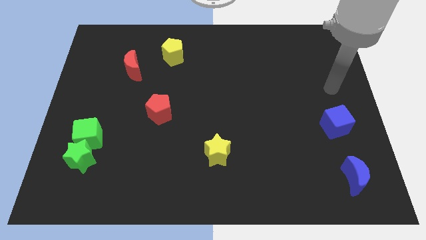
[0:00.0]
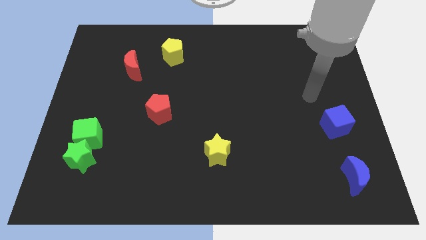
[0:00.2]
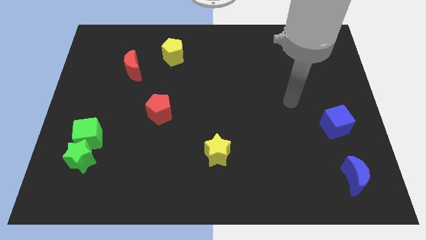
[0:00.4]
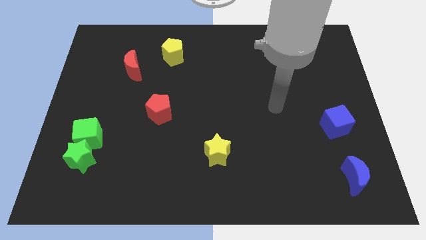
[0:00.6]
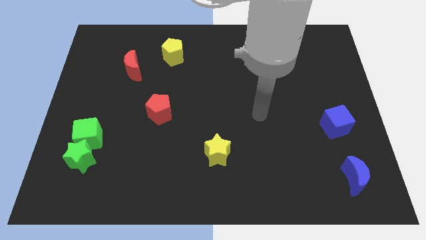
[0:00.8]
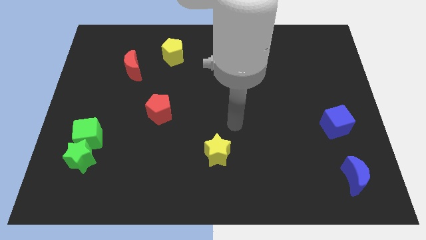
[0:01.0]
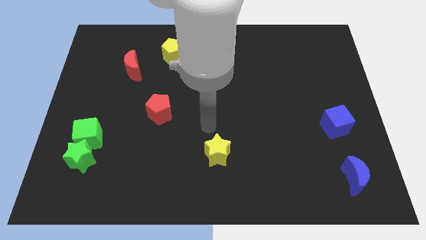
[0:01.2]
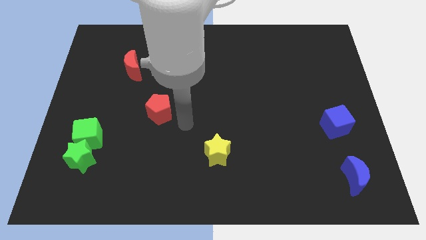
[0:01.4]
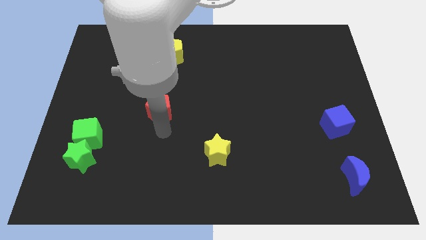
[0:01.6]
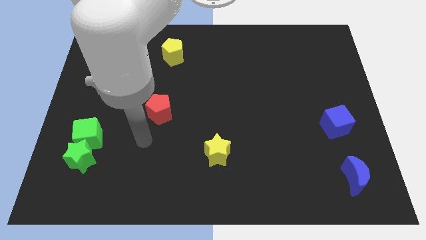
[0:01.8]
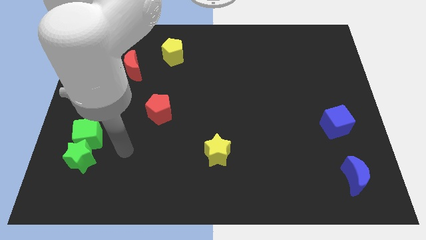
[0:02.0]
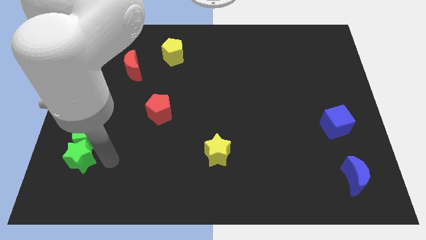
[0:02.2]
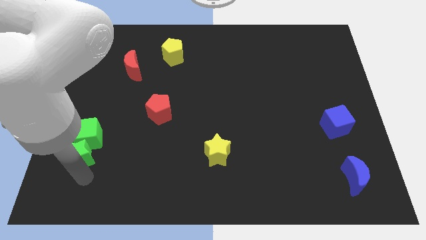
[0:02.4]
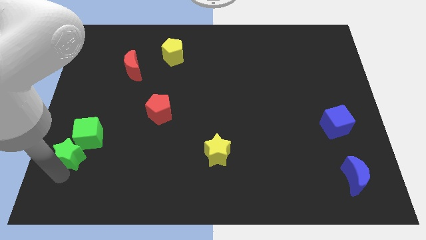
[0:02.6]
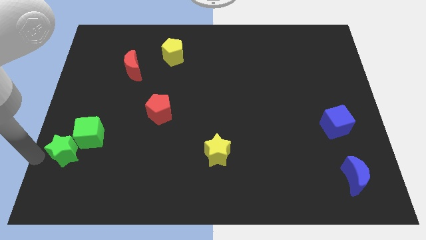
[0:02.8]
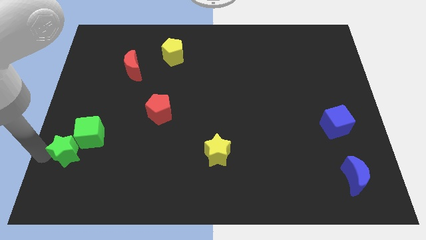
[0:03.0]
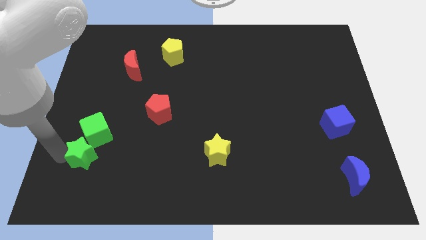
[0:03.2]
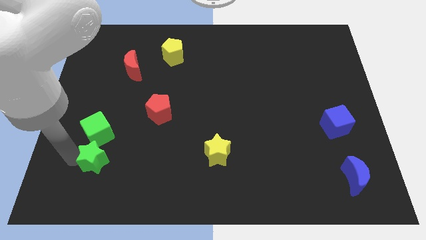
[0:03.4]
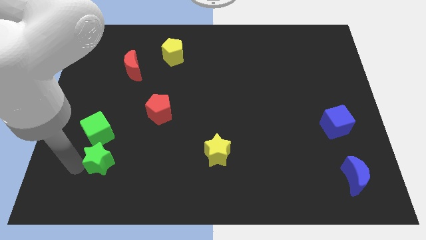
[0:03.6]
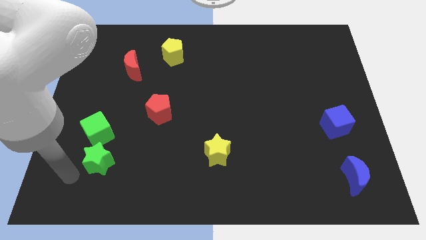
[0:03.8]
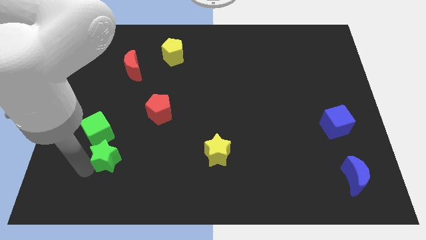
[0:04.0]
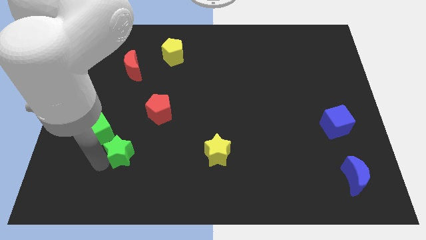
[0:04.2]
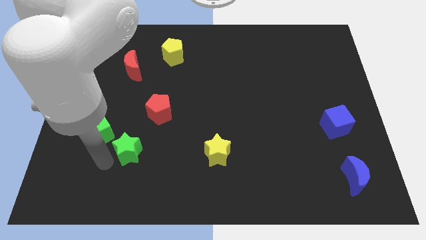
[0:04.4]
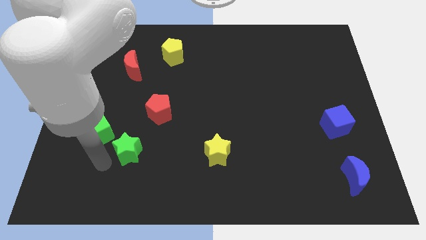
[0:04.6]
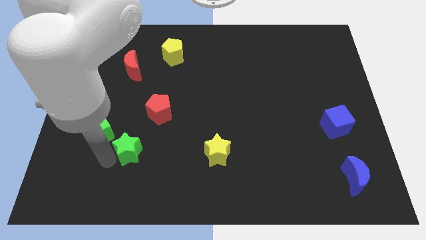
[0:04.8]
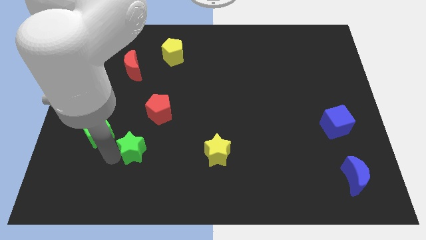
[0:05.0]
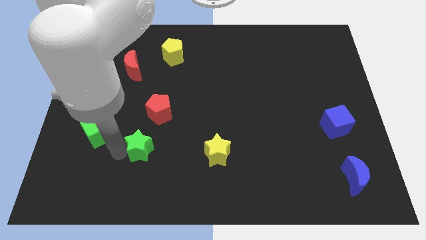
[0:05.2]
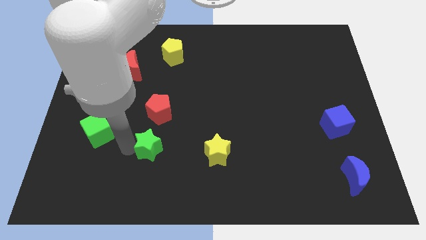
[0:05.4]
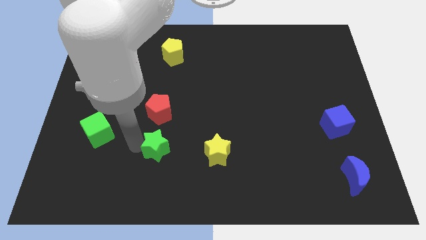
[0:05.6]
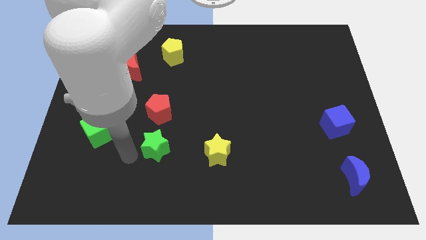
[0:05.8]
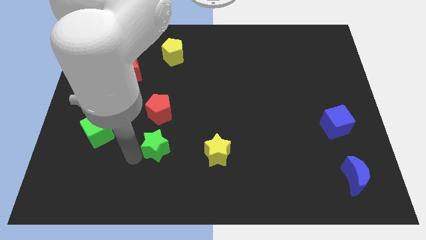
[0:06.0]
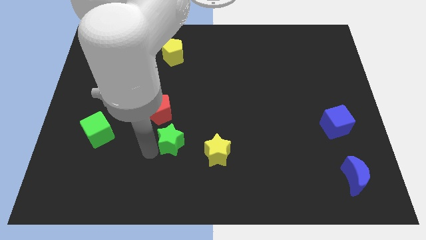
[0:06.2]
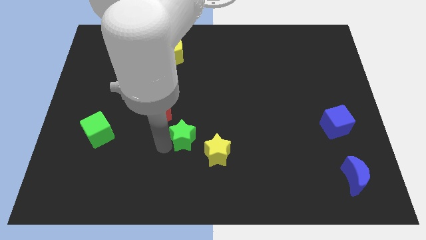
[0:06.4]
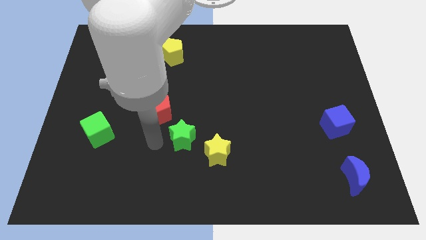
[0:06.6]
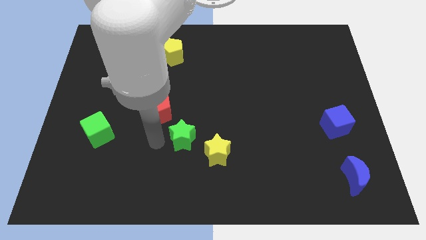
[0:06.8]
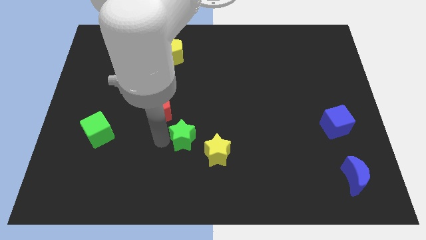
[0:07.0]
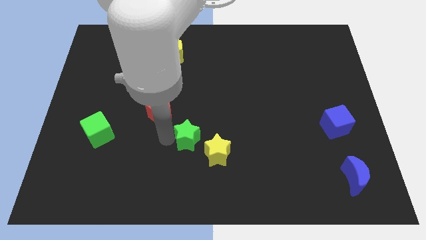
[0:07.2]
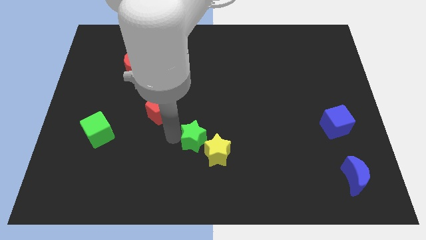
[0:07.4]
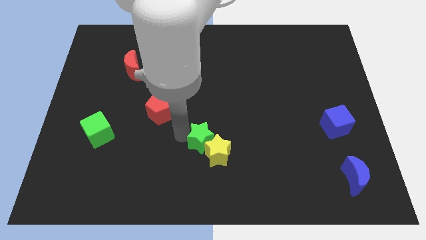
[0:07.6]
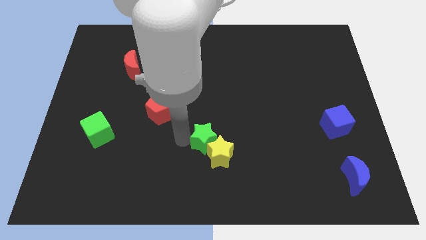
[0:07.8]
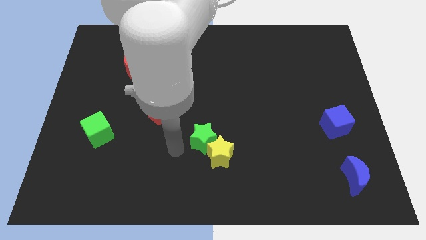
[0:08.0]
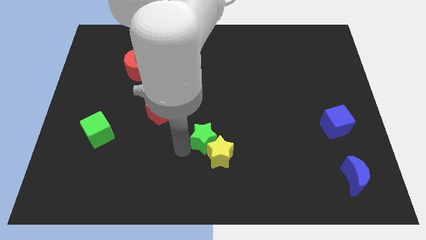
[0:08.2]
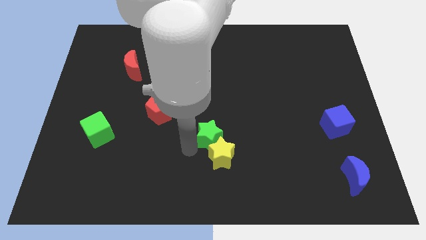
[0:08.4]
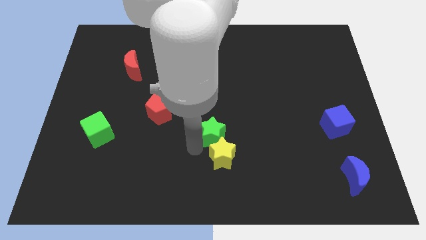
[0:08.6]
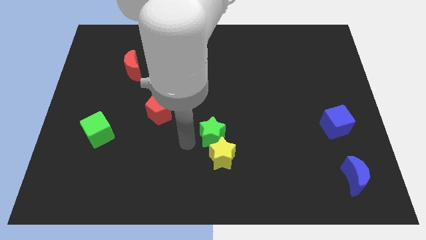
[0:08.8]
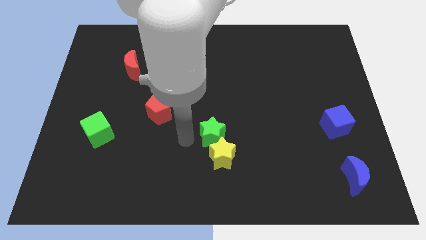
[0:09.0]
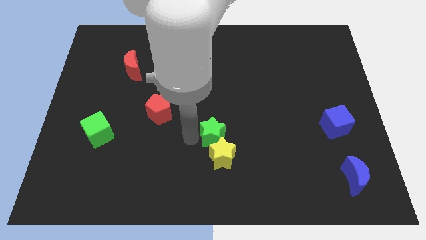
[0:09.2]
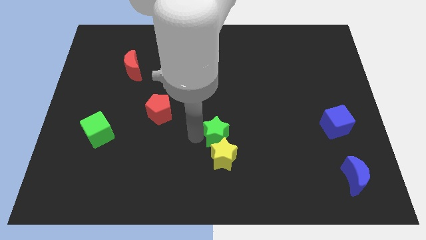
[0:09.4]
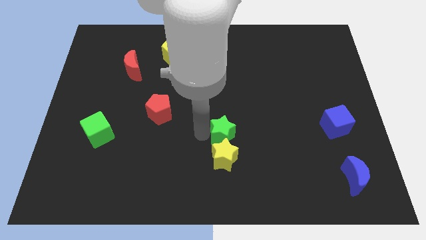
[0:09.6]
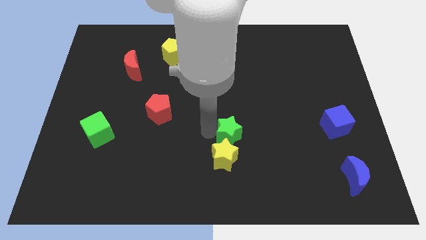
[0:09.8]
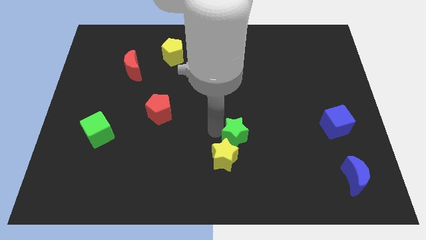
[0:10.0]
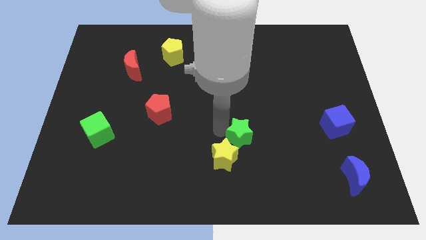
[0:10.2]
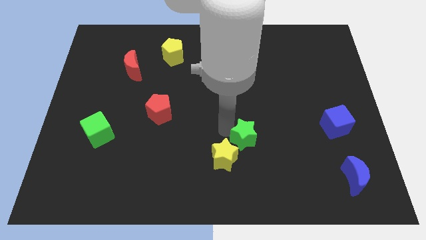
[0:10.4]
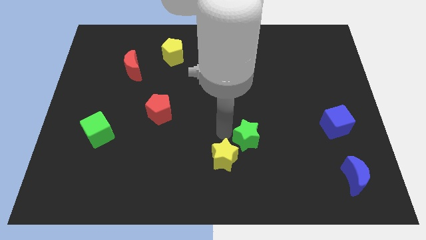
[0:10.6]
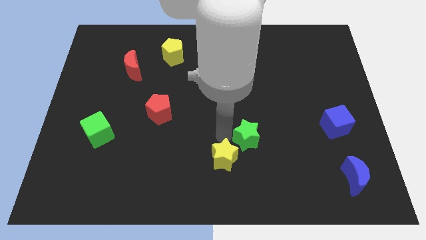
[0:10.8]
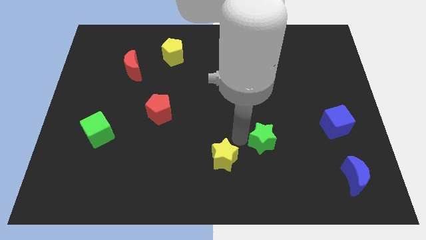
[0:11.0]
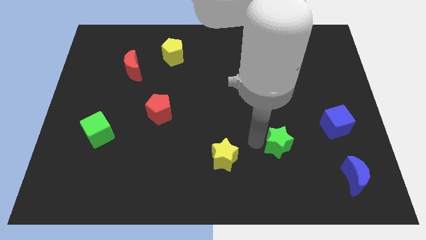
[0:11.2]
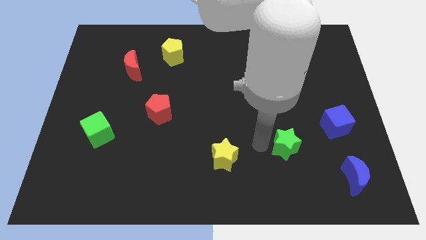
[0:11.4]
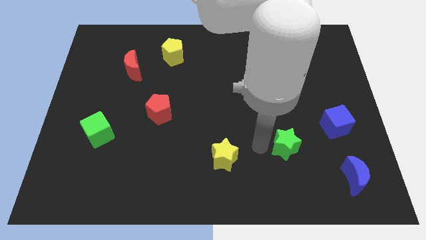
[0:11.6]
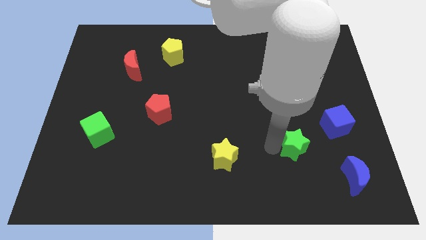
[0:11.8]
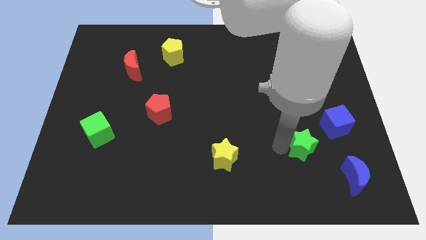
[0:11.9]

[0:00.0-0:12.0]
slide the green star to the top left of the blue moon
